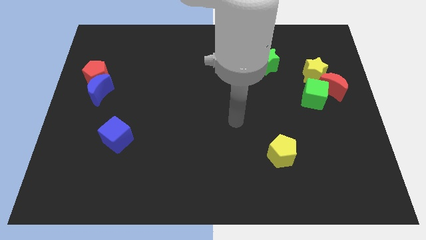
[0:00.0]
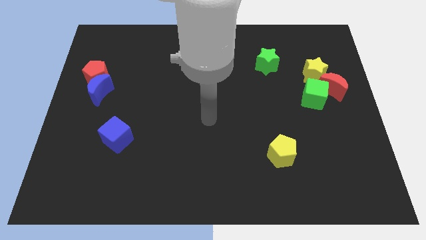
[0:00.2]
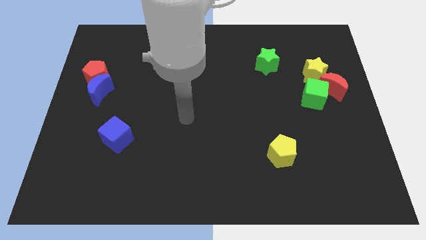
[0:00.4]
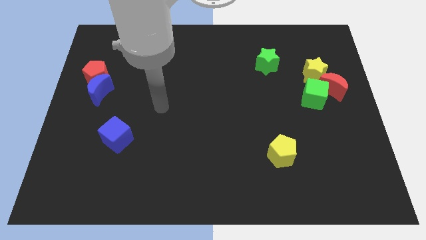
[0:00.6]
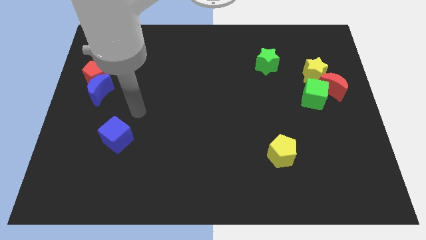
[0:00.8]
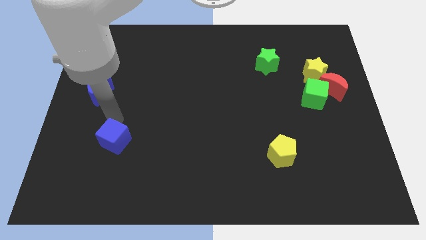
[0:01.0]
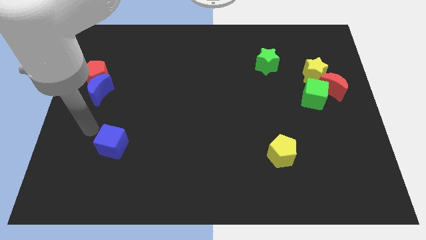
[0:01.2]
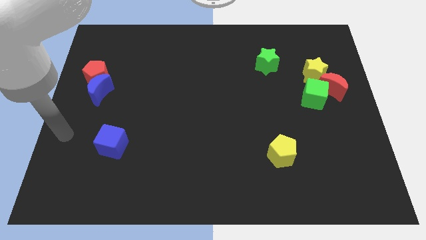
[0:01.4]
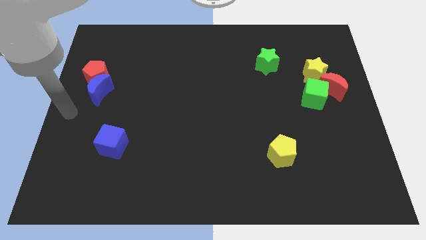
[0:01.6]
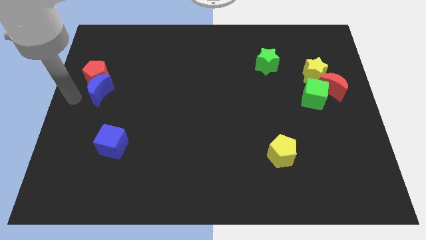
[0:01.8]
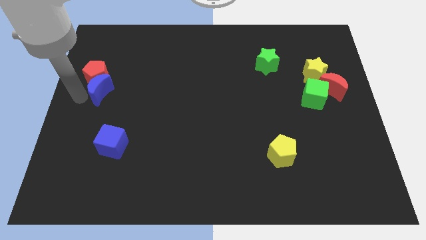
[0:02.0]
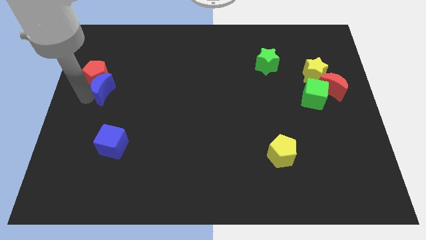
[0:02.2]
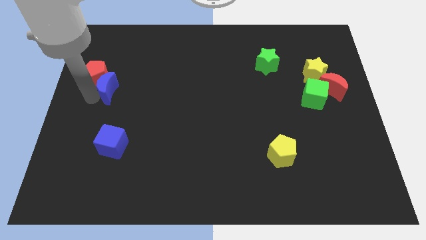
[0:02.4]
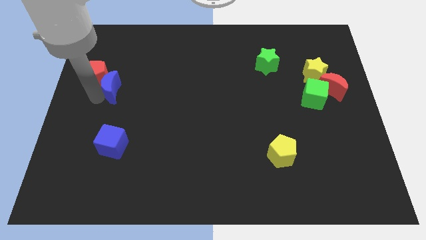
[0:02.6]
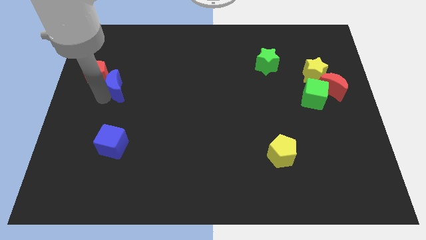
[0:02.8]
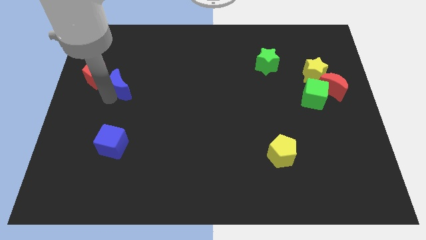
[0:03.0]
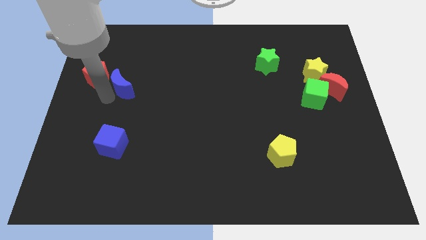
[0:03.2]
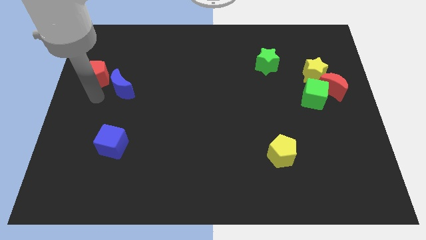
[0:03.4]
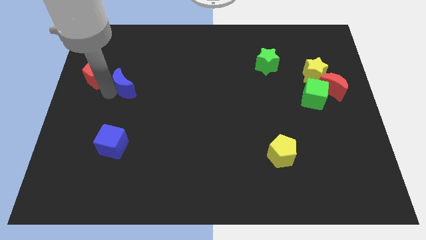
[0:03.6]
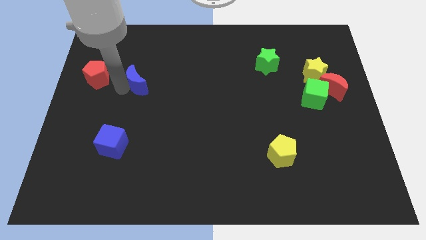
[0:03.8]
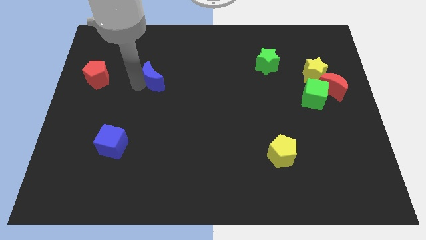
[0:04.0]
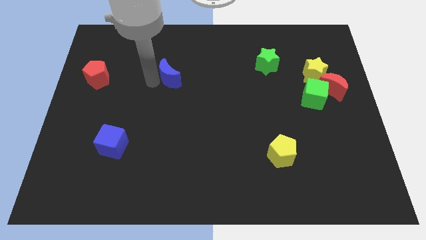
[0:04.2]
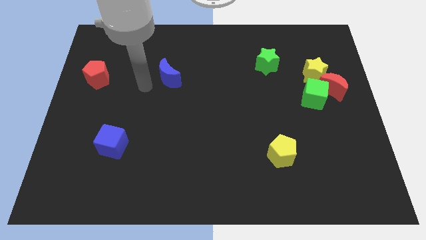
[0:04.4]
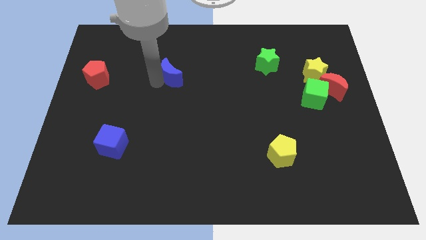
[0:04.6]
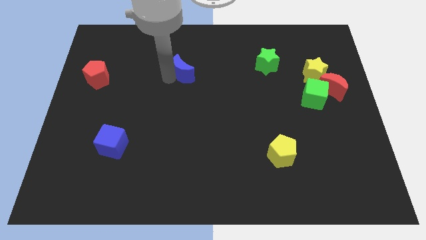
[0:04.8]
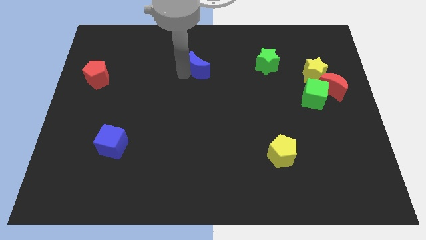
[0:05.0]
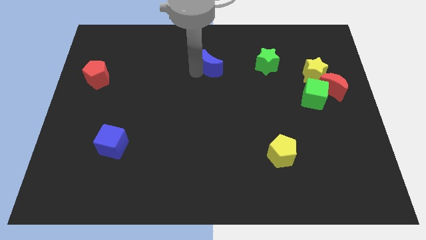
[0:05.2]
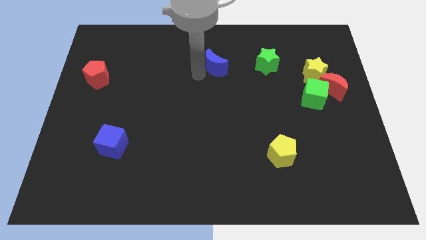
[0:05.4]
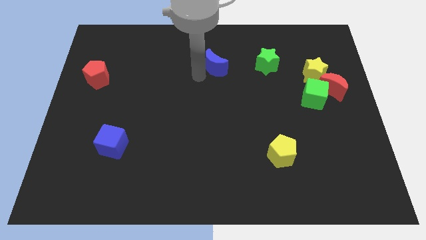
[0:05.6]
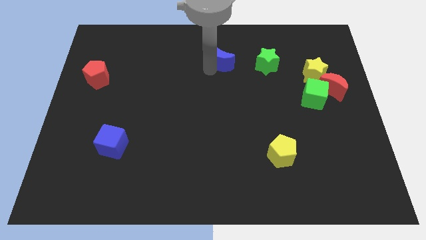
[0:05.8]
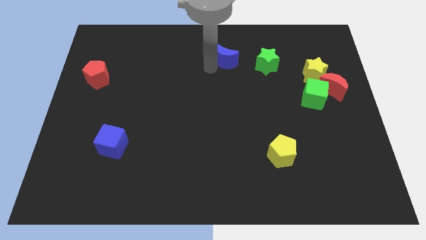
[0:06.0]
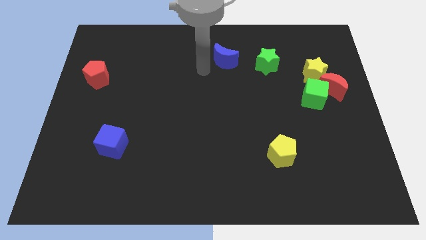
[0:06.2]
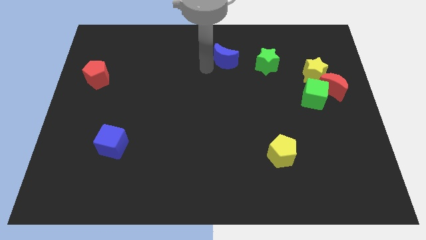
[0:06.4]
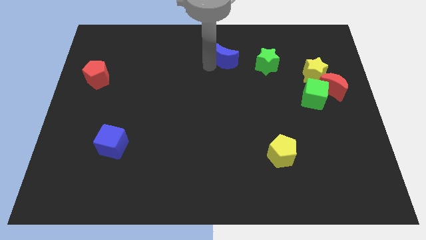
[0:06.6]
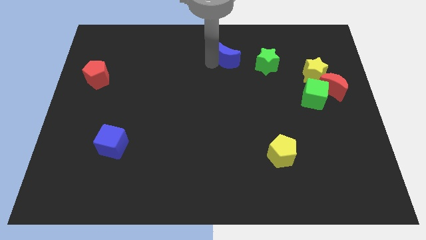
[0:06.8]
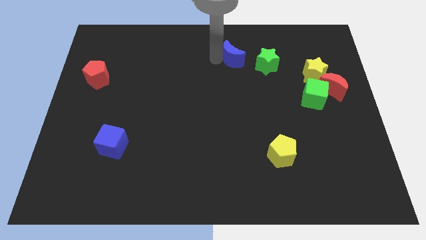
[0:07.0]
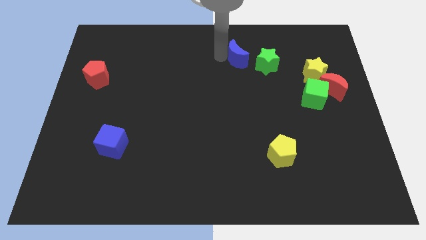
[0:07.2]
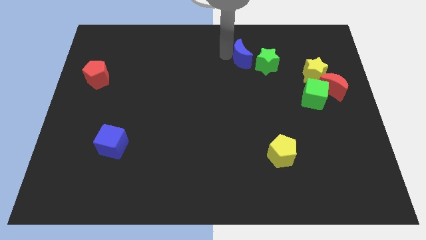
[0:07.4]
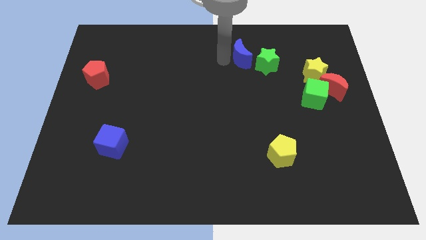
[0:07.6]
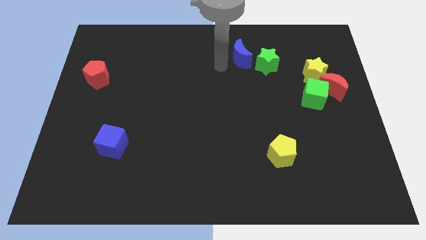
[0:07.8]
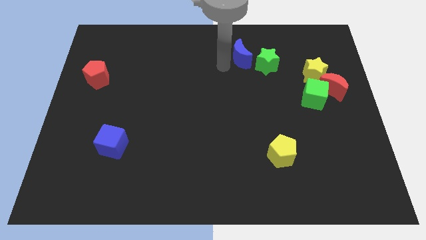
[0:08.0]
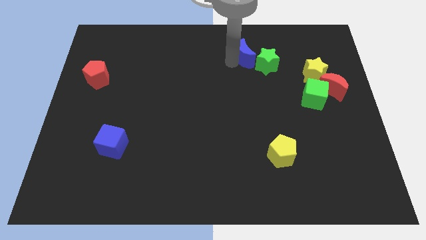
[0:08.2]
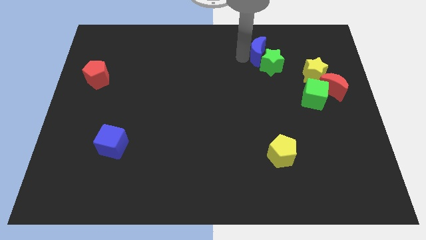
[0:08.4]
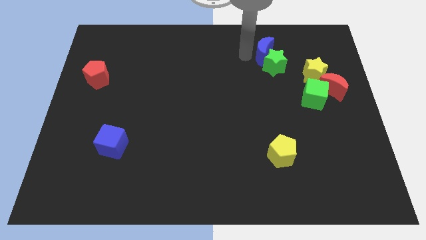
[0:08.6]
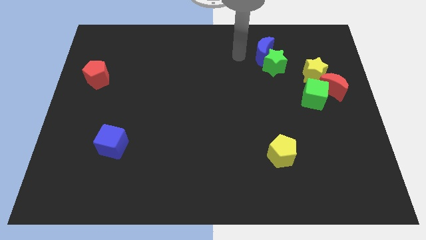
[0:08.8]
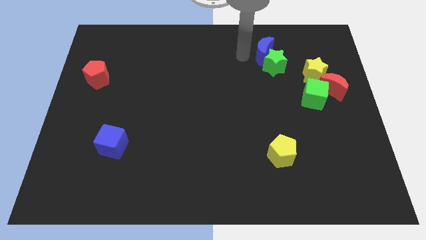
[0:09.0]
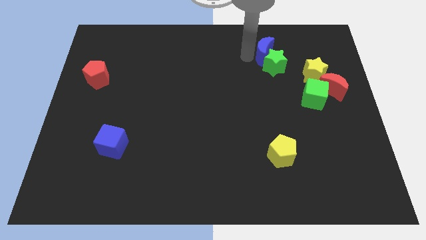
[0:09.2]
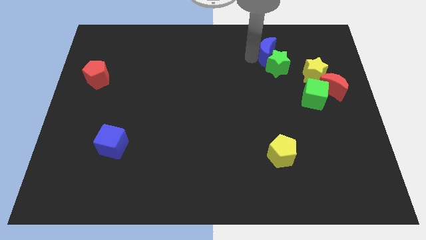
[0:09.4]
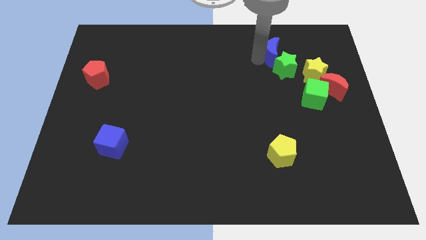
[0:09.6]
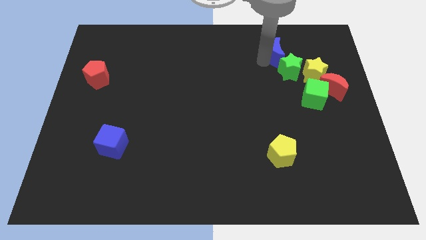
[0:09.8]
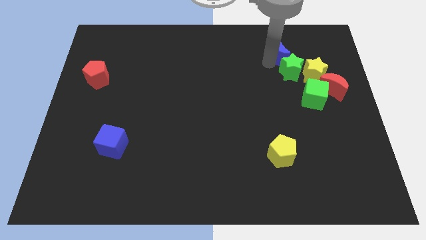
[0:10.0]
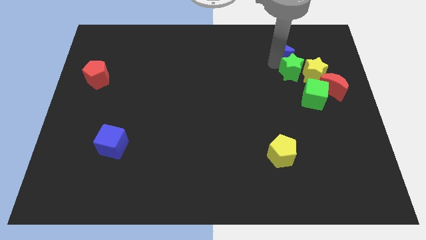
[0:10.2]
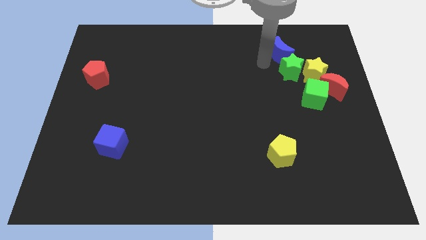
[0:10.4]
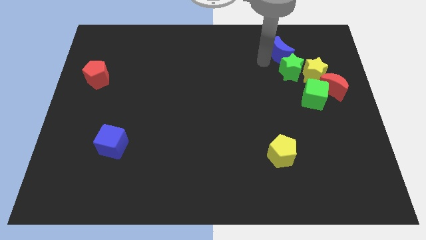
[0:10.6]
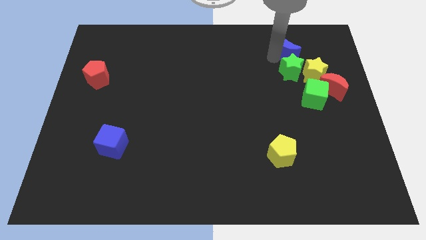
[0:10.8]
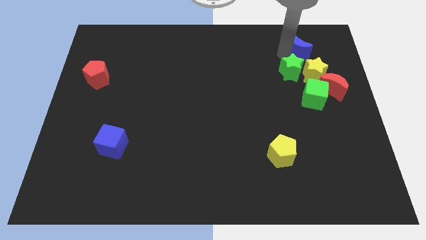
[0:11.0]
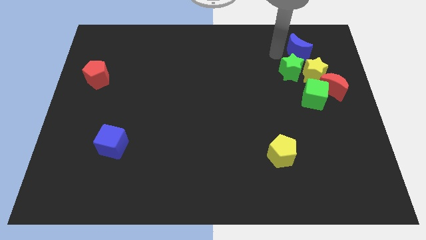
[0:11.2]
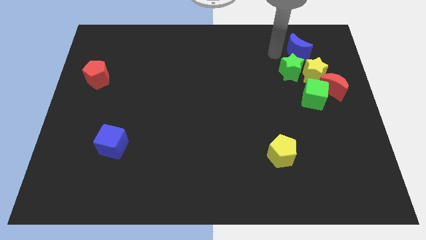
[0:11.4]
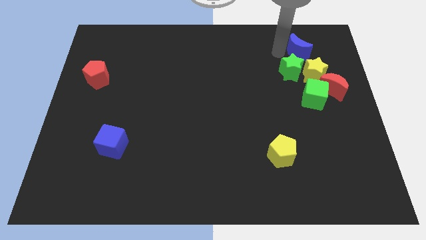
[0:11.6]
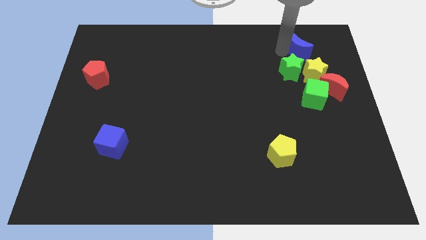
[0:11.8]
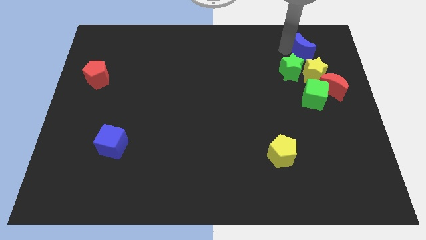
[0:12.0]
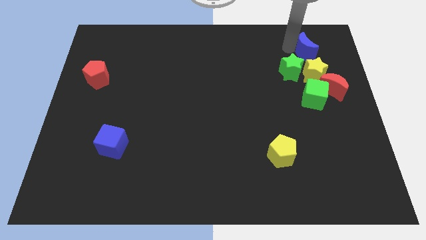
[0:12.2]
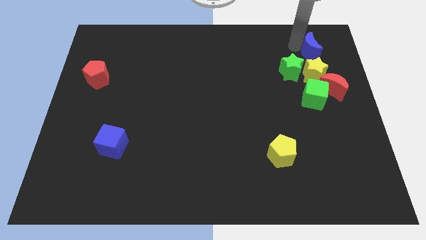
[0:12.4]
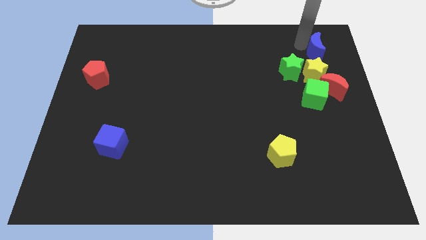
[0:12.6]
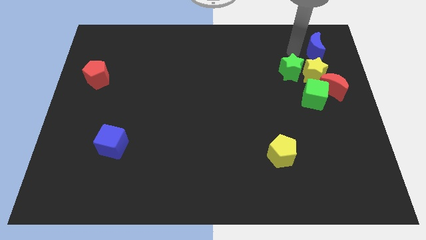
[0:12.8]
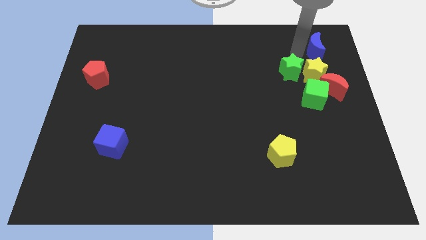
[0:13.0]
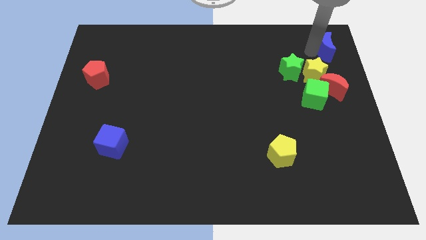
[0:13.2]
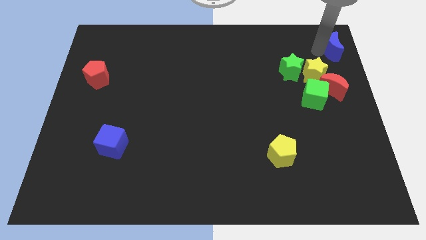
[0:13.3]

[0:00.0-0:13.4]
move the blue moon to the top right
